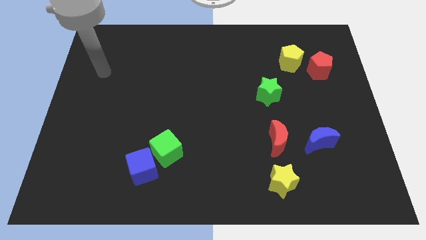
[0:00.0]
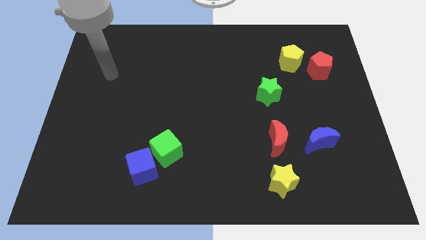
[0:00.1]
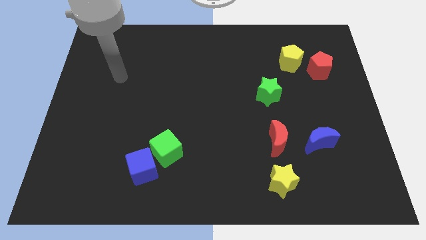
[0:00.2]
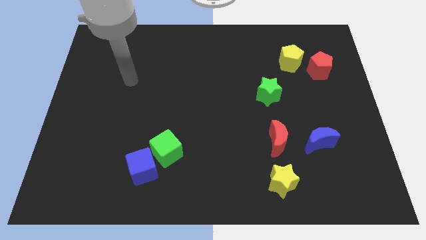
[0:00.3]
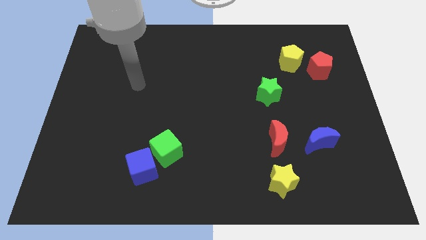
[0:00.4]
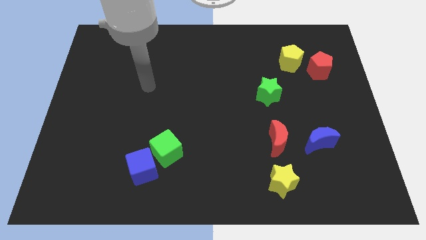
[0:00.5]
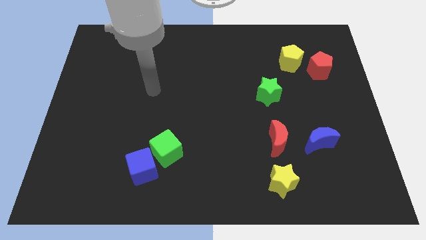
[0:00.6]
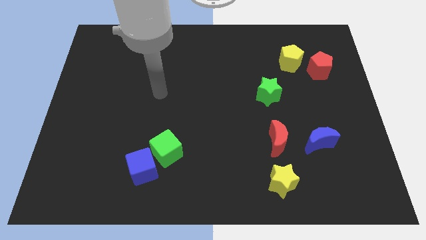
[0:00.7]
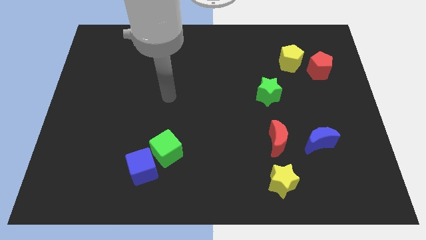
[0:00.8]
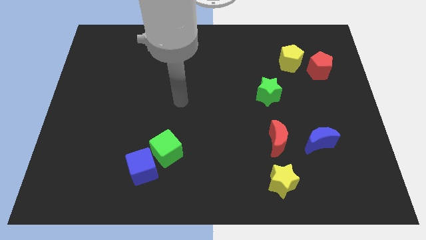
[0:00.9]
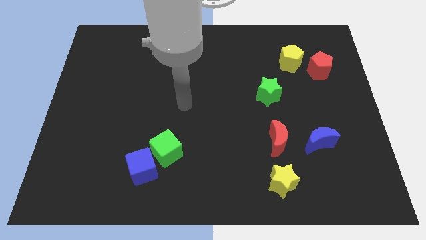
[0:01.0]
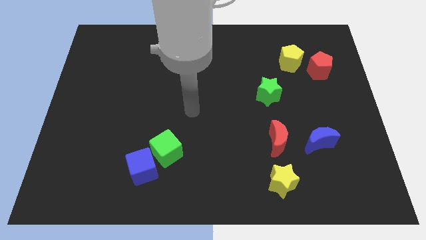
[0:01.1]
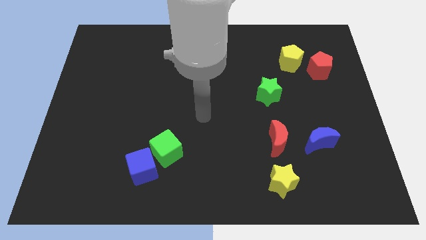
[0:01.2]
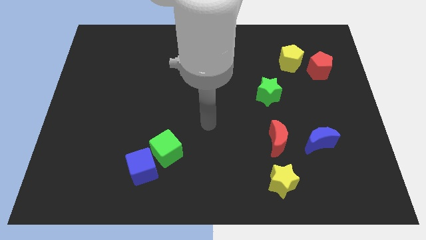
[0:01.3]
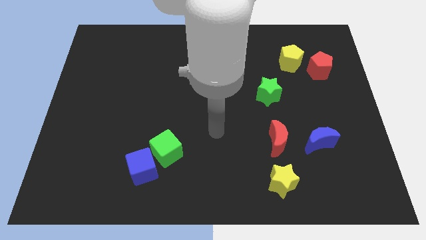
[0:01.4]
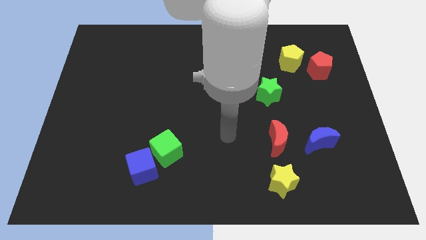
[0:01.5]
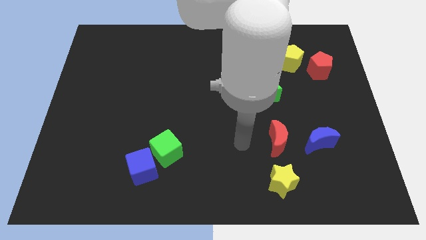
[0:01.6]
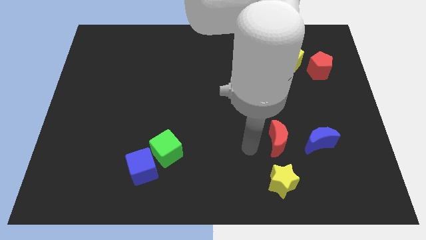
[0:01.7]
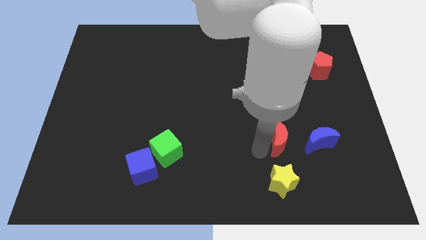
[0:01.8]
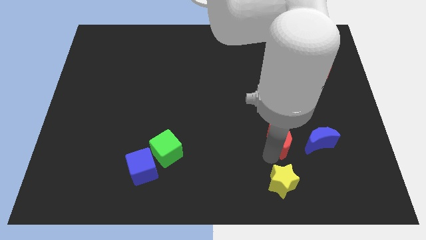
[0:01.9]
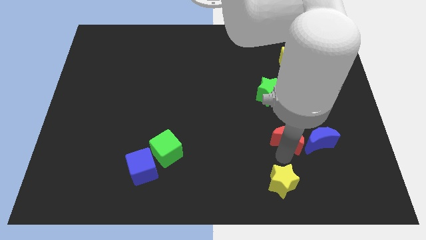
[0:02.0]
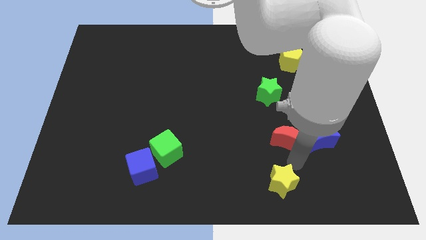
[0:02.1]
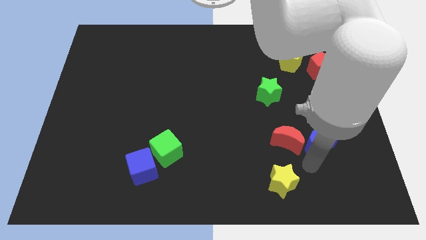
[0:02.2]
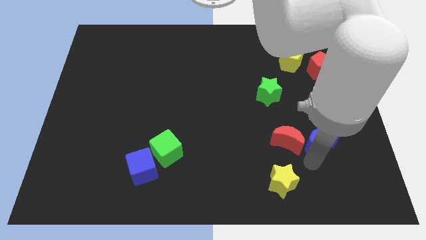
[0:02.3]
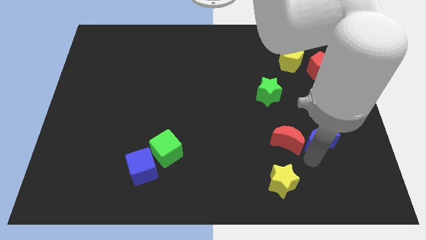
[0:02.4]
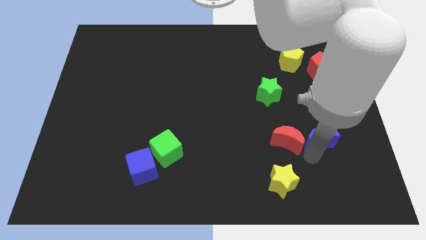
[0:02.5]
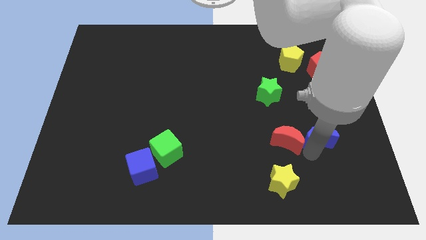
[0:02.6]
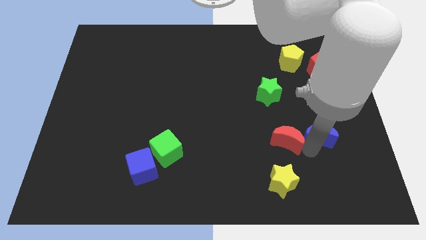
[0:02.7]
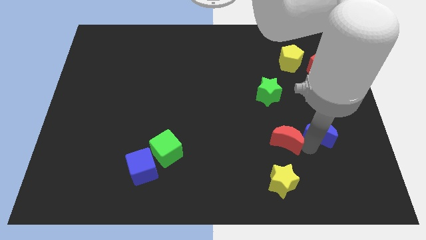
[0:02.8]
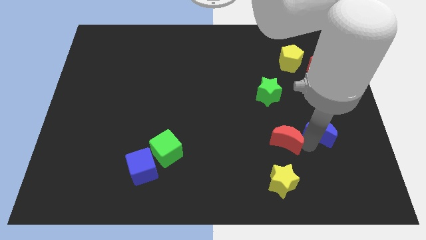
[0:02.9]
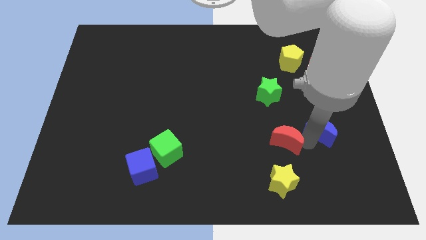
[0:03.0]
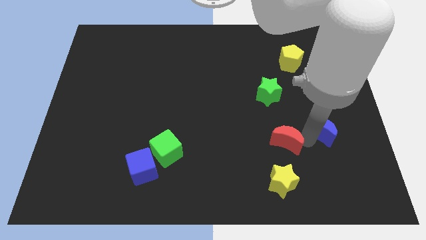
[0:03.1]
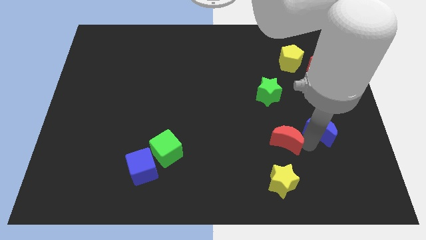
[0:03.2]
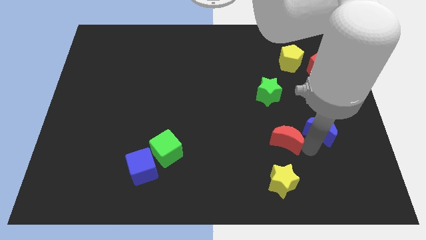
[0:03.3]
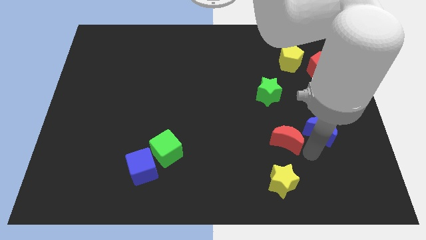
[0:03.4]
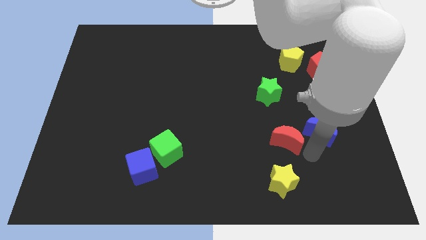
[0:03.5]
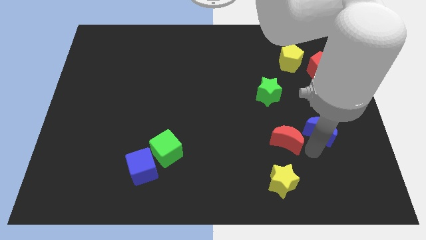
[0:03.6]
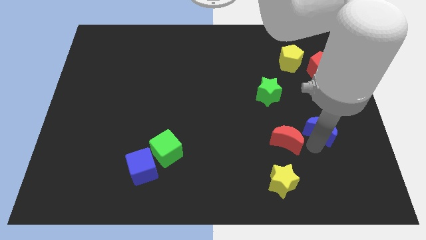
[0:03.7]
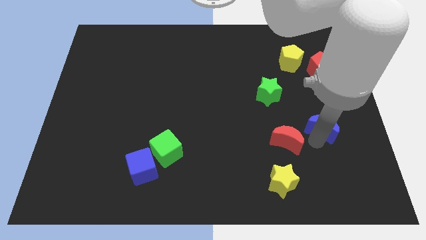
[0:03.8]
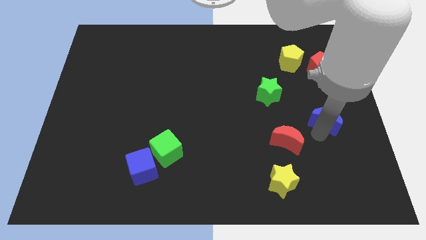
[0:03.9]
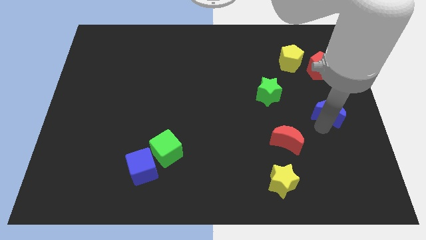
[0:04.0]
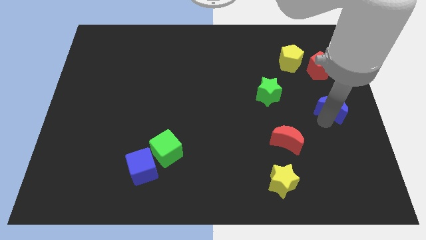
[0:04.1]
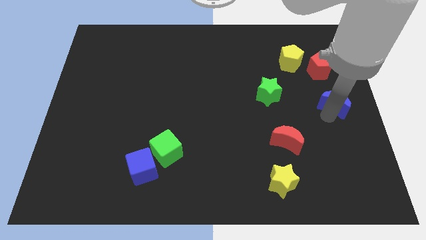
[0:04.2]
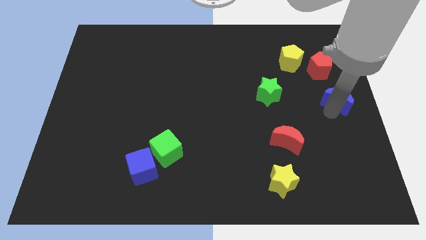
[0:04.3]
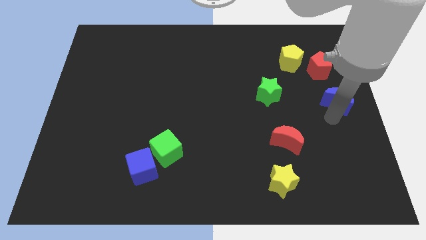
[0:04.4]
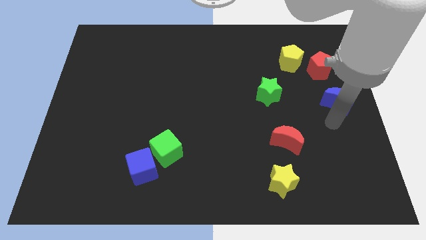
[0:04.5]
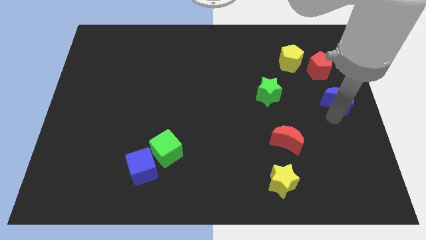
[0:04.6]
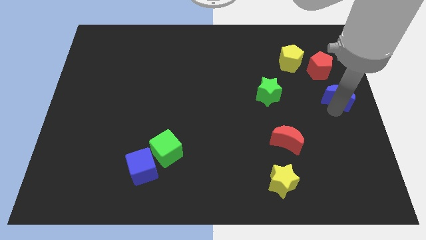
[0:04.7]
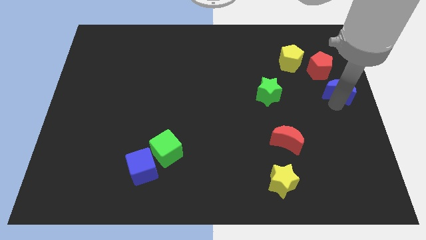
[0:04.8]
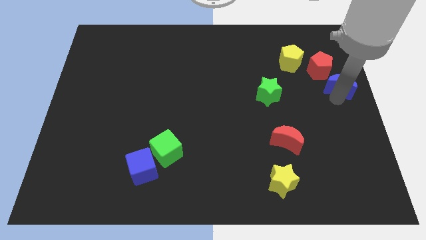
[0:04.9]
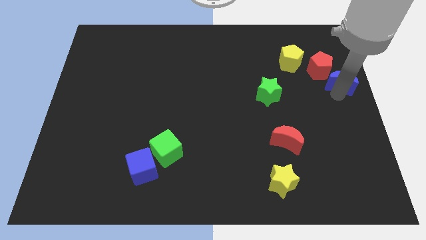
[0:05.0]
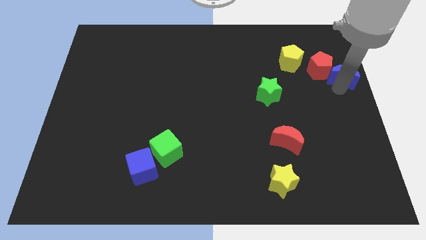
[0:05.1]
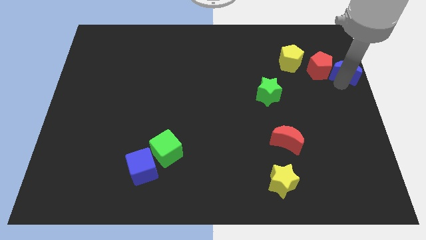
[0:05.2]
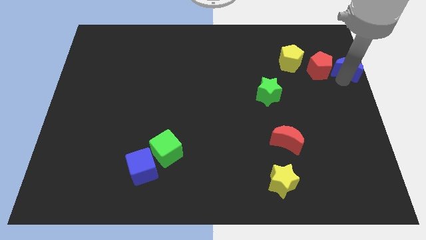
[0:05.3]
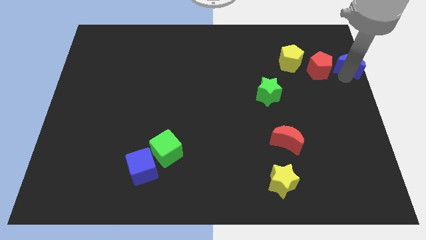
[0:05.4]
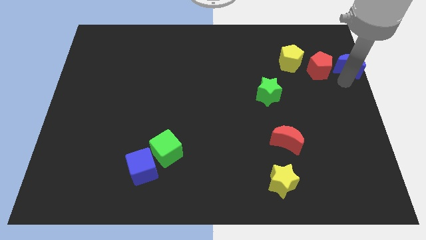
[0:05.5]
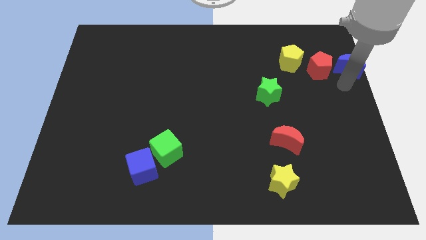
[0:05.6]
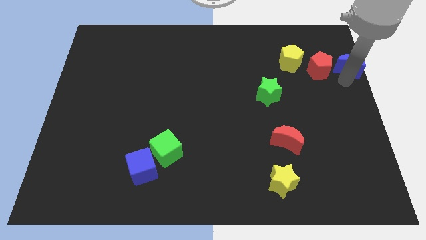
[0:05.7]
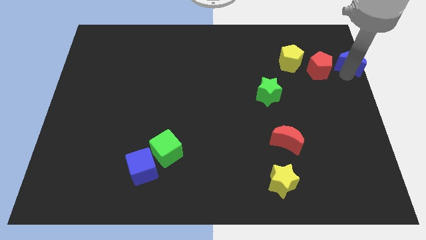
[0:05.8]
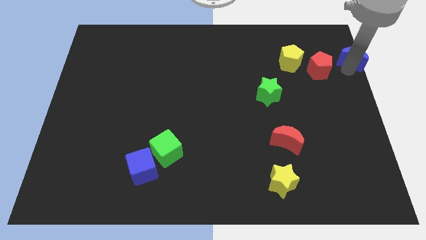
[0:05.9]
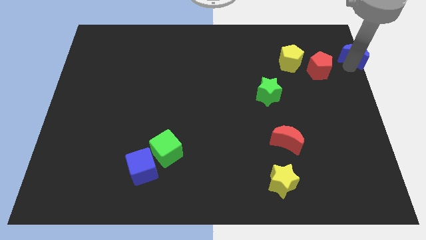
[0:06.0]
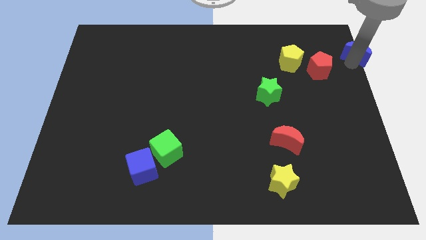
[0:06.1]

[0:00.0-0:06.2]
slide the blue moon to the top right
